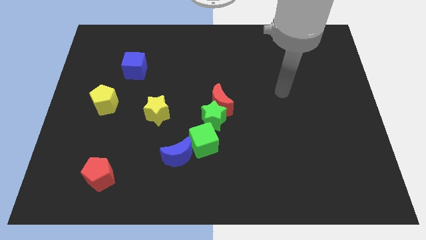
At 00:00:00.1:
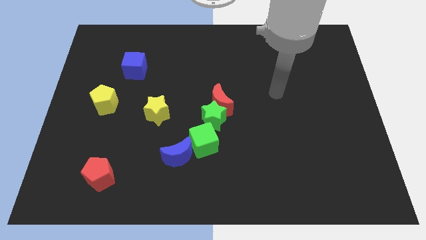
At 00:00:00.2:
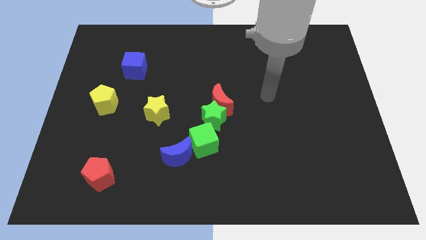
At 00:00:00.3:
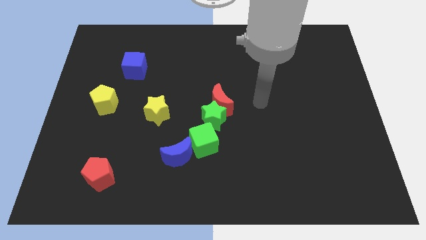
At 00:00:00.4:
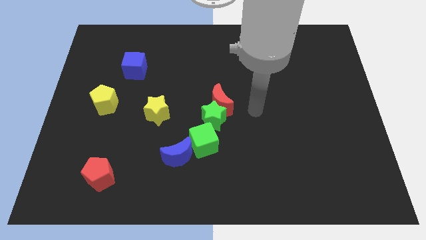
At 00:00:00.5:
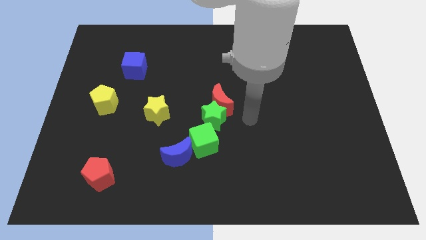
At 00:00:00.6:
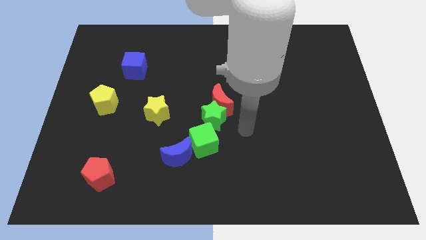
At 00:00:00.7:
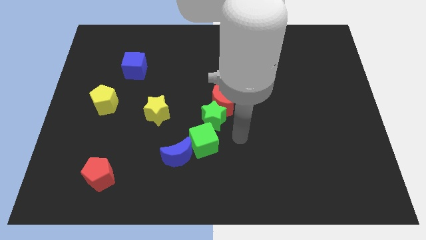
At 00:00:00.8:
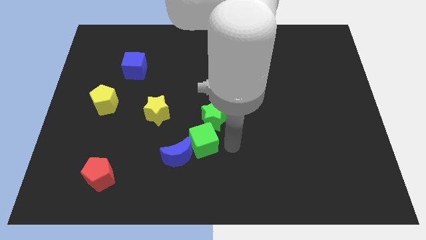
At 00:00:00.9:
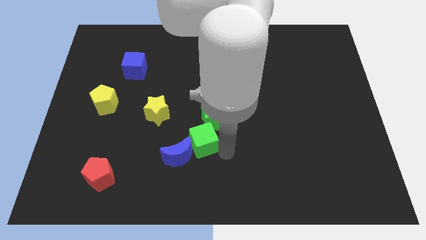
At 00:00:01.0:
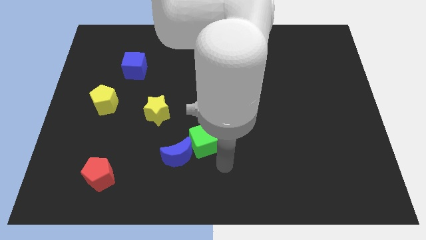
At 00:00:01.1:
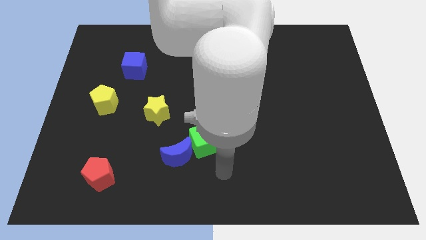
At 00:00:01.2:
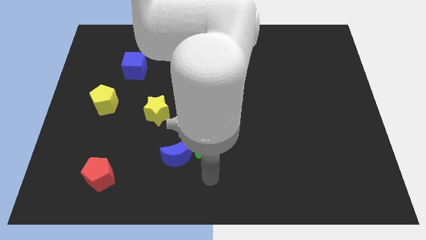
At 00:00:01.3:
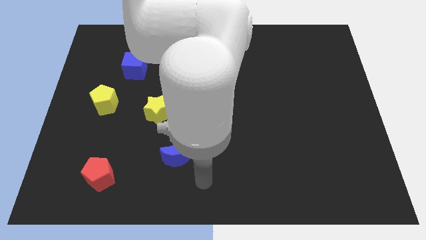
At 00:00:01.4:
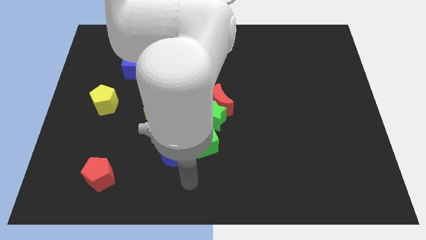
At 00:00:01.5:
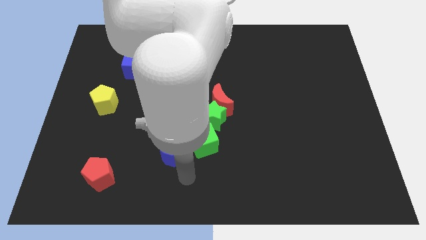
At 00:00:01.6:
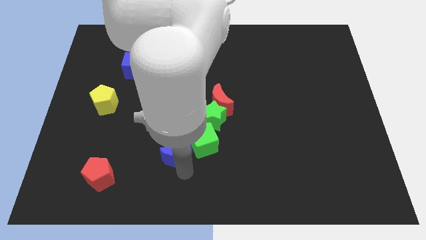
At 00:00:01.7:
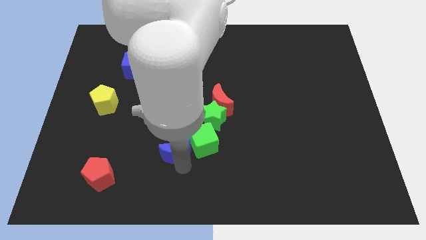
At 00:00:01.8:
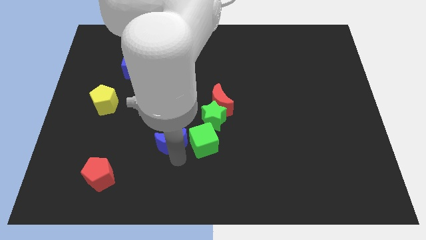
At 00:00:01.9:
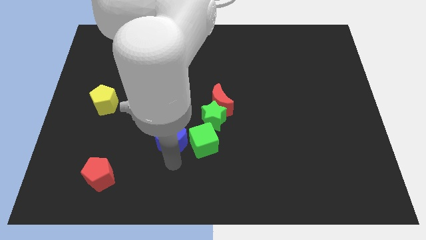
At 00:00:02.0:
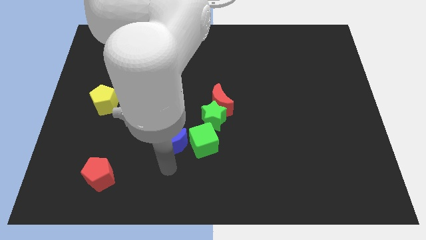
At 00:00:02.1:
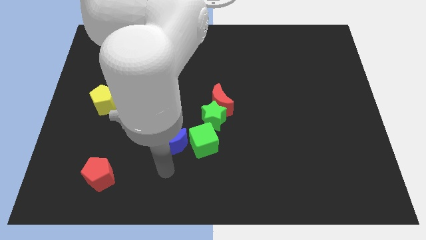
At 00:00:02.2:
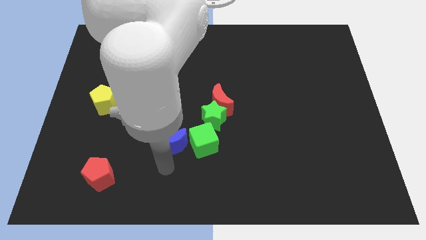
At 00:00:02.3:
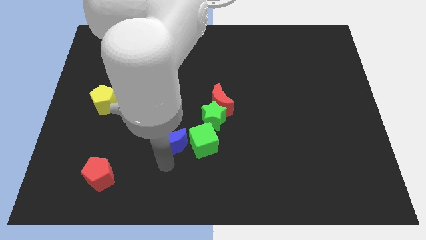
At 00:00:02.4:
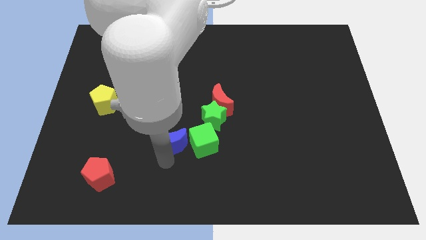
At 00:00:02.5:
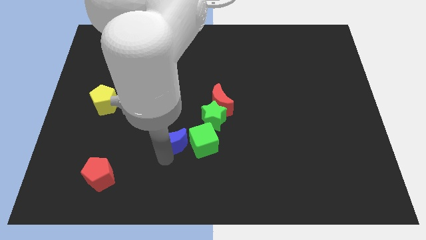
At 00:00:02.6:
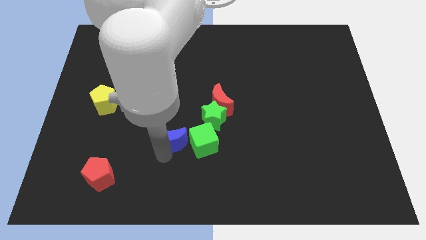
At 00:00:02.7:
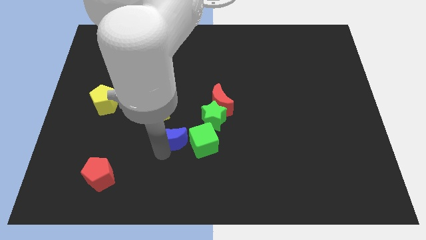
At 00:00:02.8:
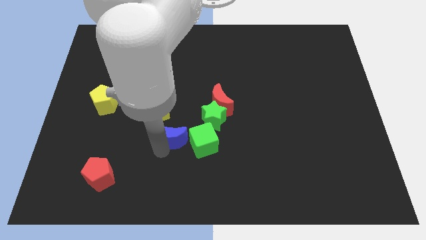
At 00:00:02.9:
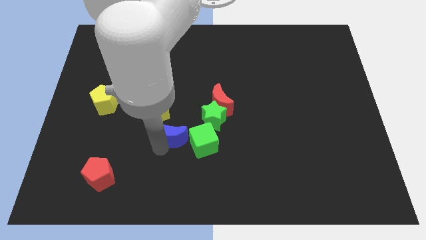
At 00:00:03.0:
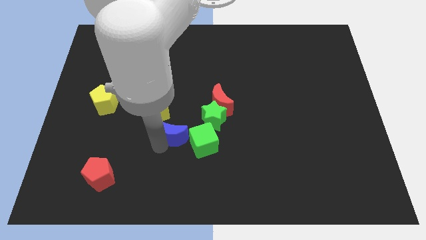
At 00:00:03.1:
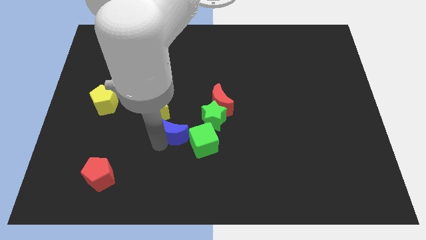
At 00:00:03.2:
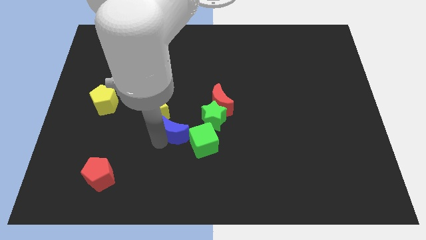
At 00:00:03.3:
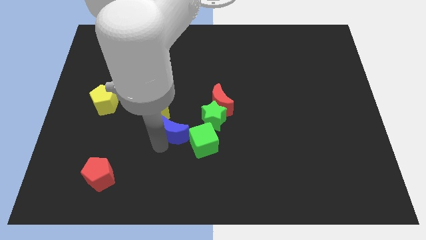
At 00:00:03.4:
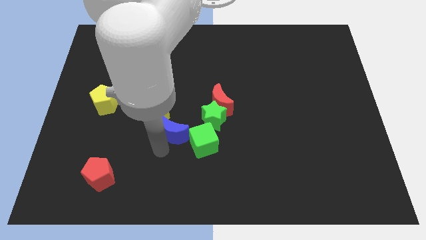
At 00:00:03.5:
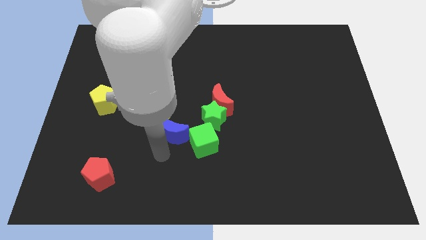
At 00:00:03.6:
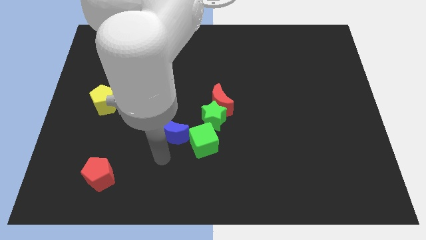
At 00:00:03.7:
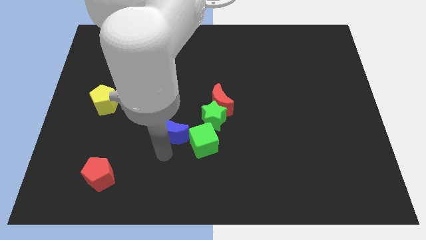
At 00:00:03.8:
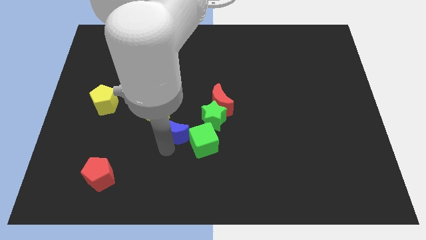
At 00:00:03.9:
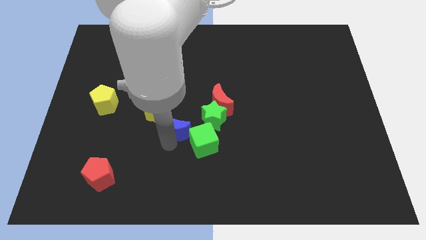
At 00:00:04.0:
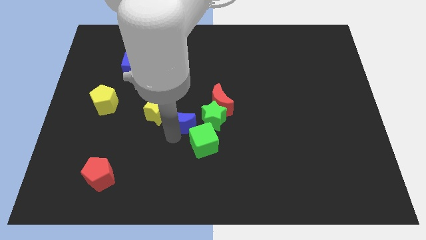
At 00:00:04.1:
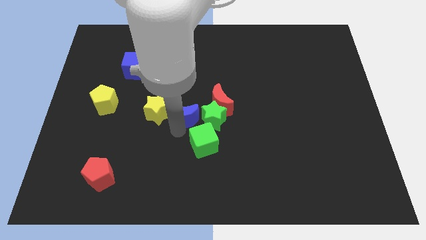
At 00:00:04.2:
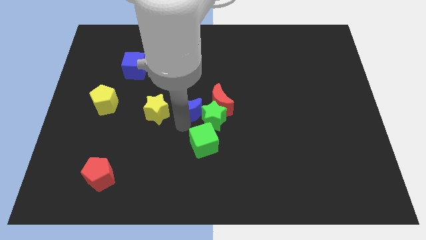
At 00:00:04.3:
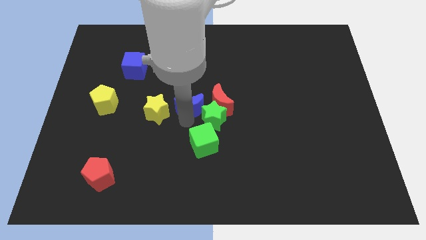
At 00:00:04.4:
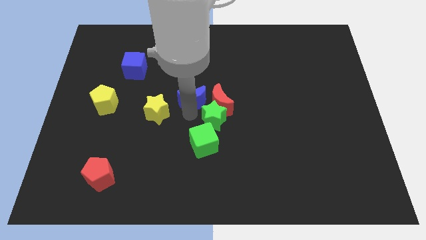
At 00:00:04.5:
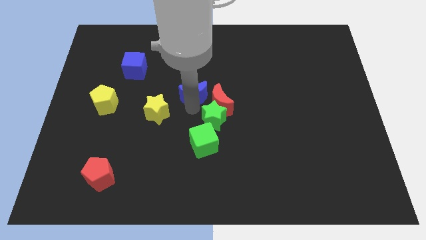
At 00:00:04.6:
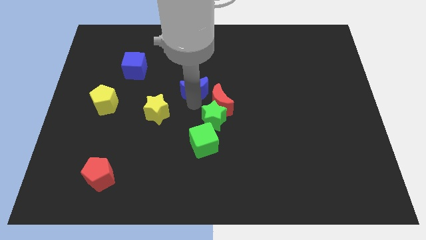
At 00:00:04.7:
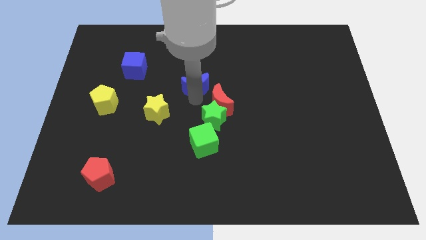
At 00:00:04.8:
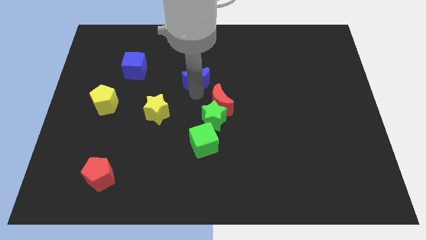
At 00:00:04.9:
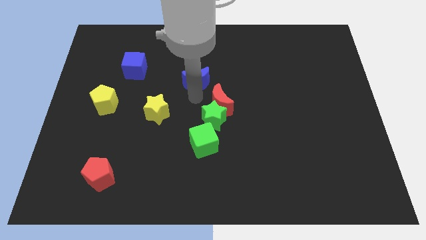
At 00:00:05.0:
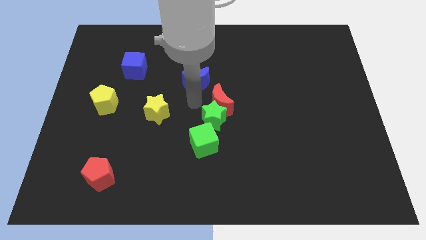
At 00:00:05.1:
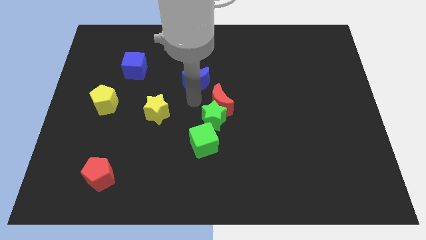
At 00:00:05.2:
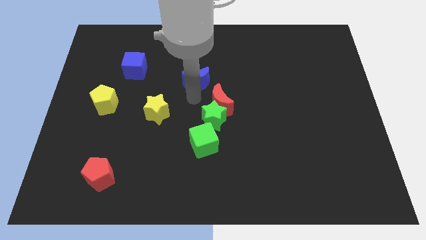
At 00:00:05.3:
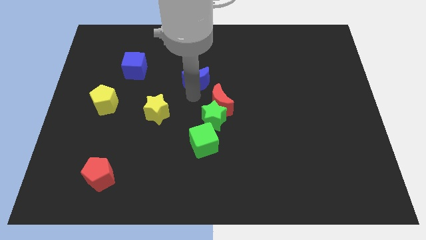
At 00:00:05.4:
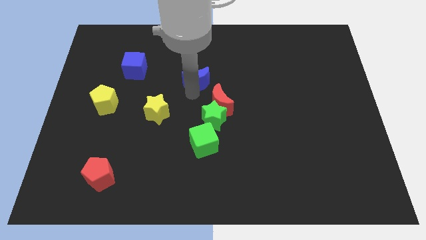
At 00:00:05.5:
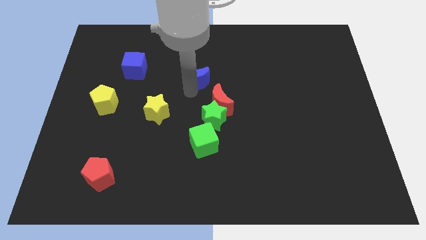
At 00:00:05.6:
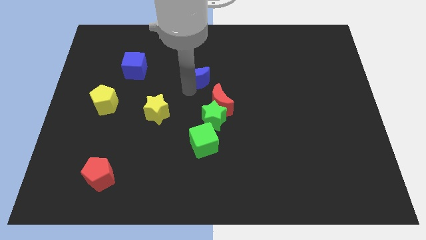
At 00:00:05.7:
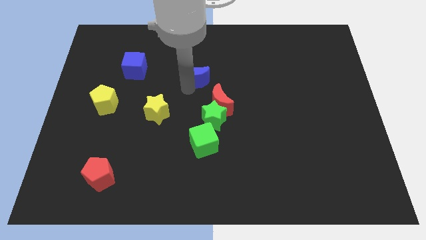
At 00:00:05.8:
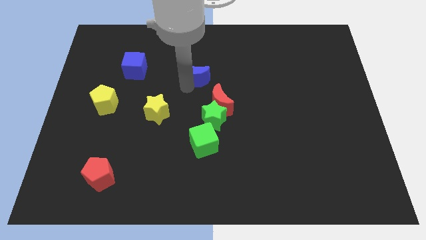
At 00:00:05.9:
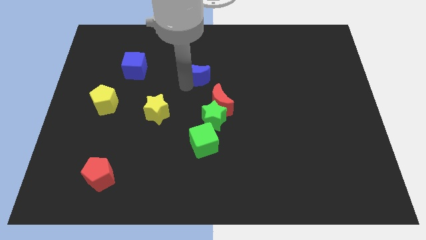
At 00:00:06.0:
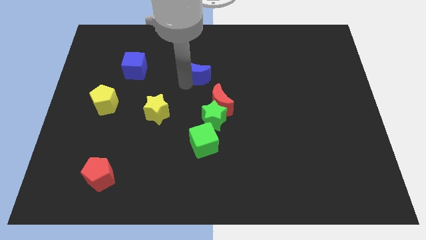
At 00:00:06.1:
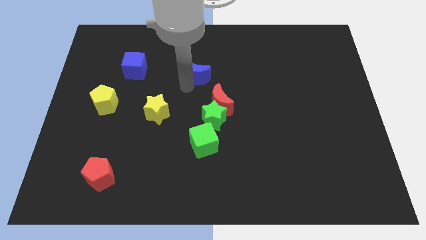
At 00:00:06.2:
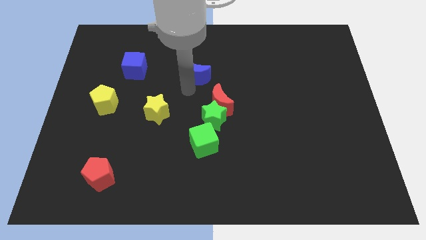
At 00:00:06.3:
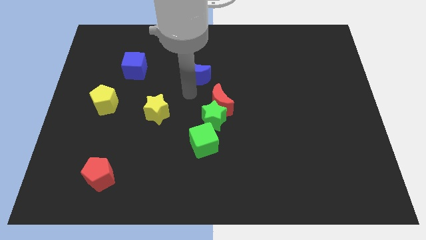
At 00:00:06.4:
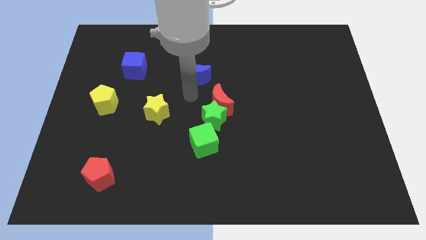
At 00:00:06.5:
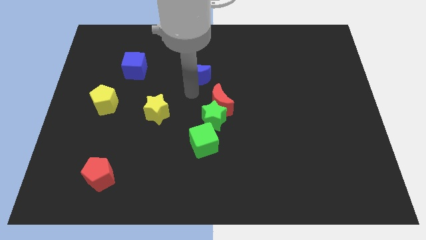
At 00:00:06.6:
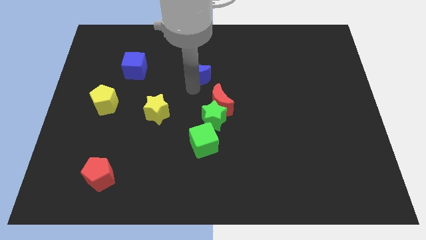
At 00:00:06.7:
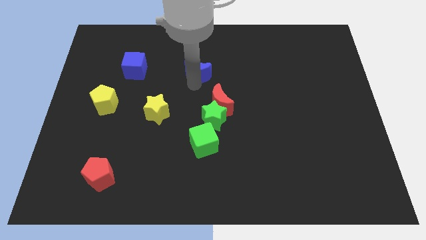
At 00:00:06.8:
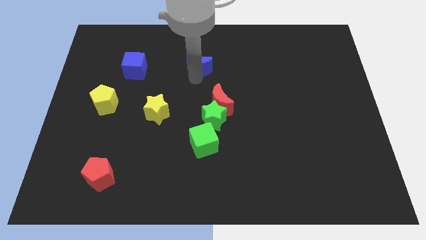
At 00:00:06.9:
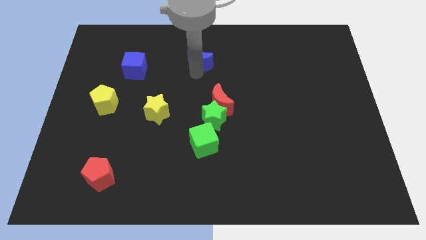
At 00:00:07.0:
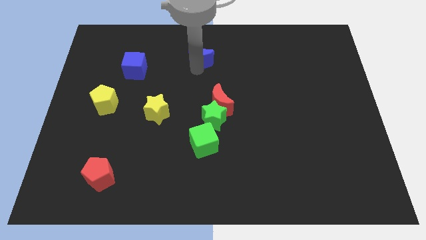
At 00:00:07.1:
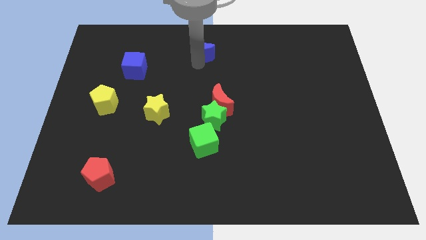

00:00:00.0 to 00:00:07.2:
slide the blue moon to the top side
